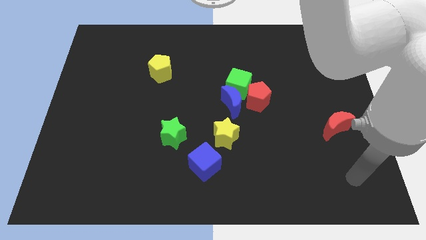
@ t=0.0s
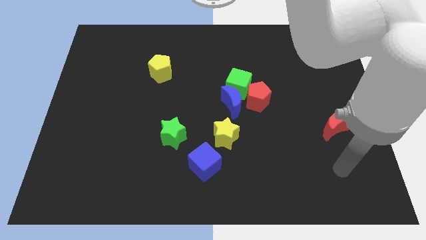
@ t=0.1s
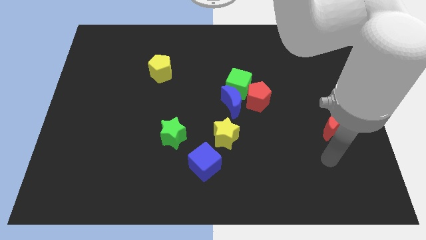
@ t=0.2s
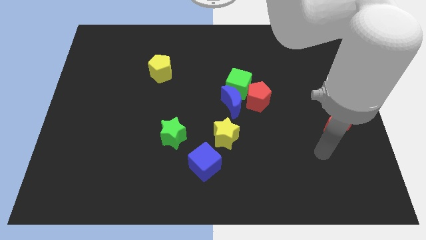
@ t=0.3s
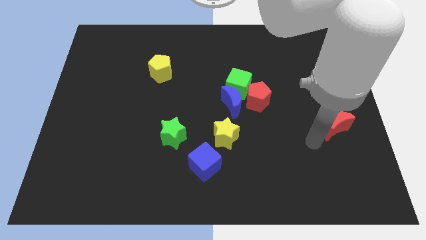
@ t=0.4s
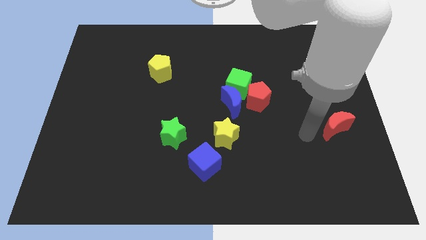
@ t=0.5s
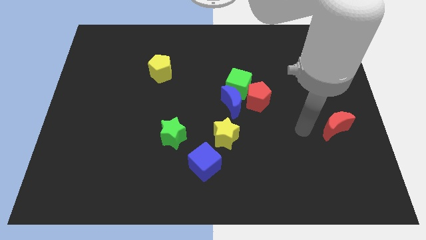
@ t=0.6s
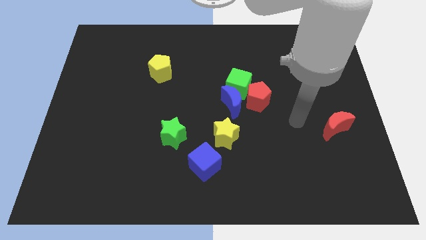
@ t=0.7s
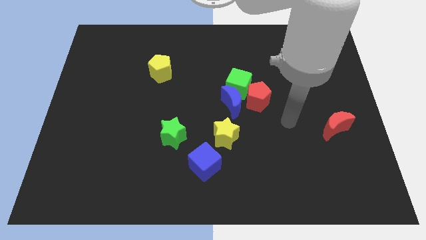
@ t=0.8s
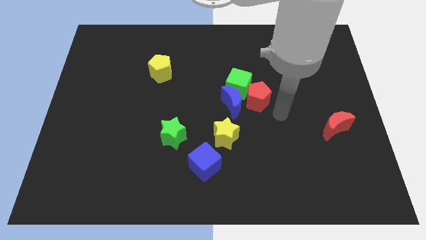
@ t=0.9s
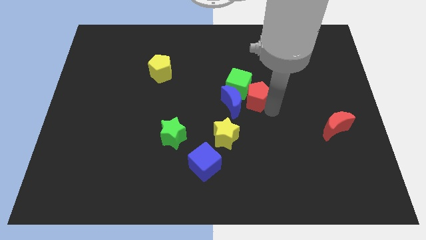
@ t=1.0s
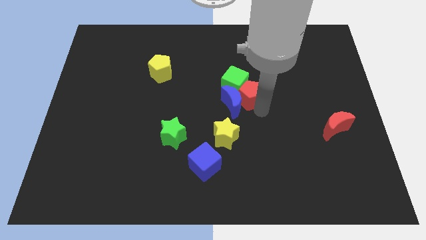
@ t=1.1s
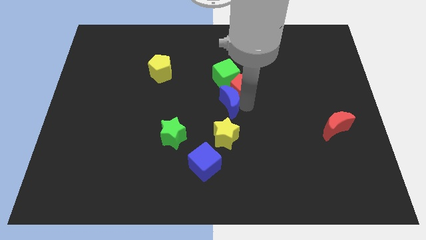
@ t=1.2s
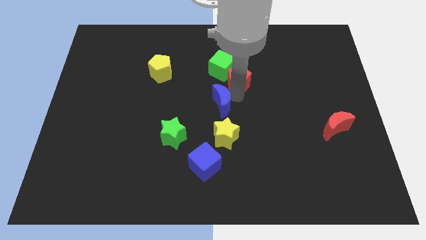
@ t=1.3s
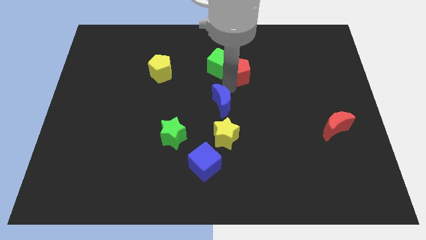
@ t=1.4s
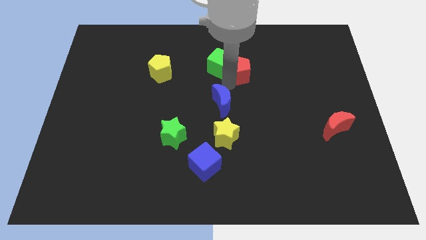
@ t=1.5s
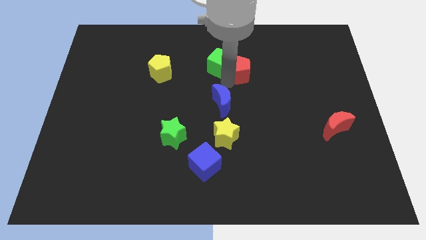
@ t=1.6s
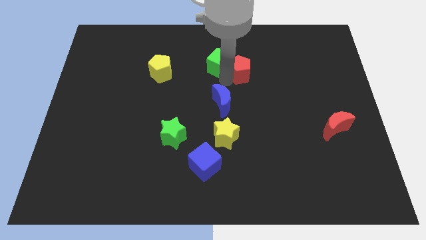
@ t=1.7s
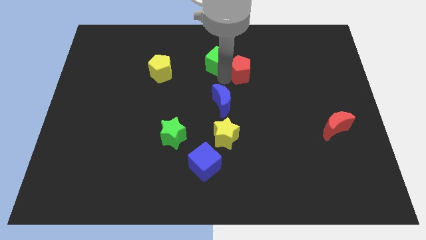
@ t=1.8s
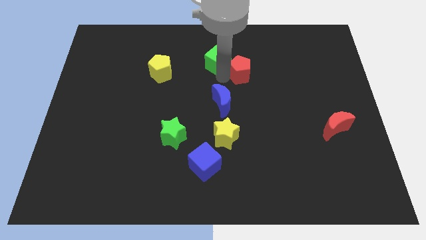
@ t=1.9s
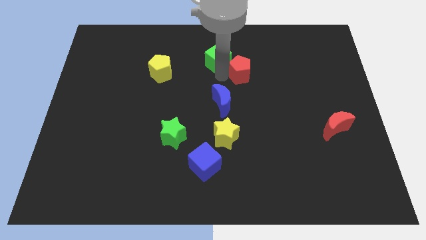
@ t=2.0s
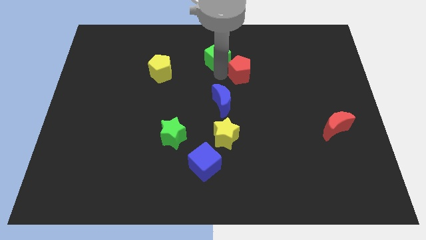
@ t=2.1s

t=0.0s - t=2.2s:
pull the green cube apart from the blue moon and red pentagon

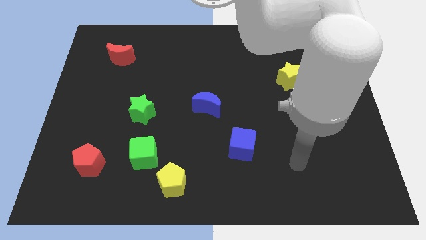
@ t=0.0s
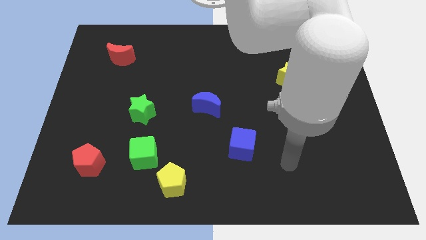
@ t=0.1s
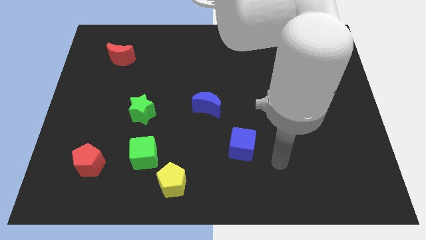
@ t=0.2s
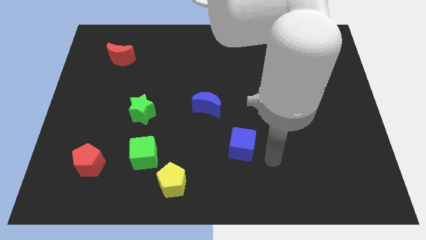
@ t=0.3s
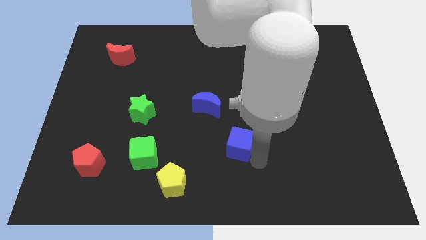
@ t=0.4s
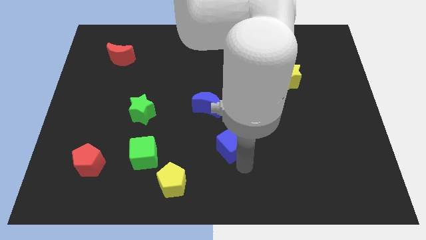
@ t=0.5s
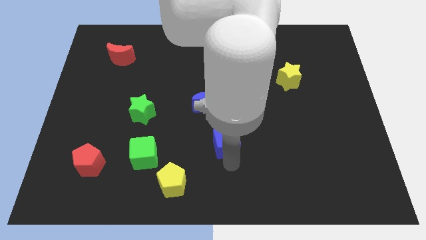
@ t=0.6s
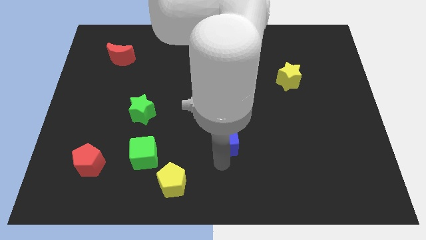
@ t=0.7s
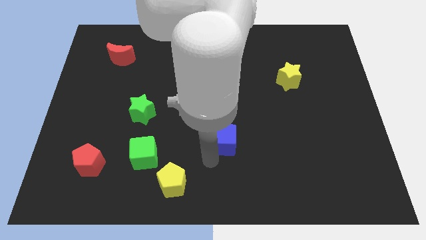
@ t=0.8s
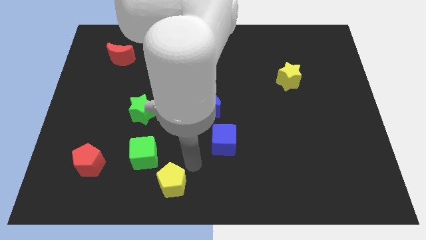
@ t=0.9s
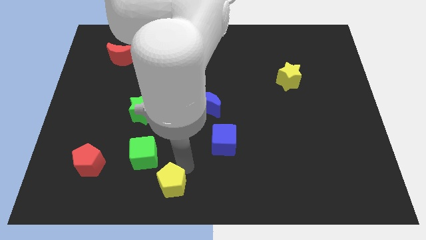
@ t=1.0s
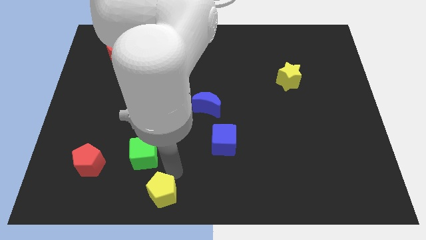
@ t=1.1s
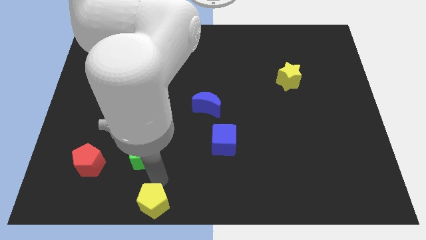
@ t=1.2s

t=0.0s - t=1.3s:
pull the green cube apart from the yellow pentagon

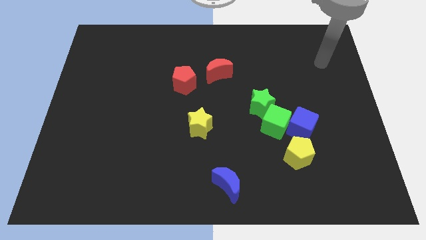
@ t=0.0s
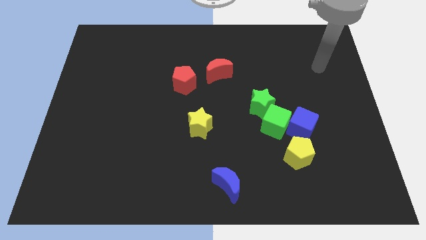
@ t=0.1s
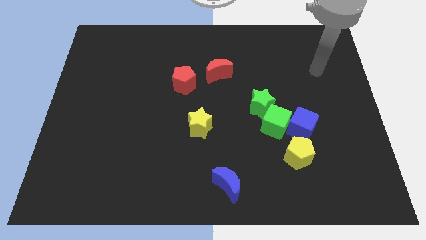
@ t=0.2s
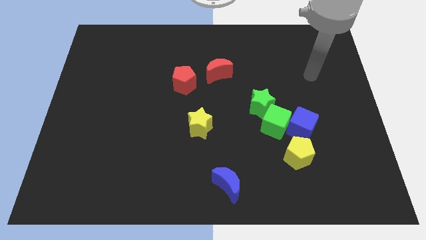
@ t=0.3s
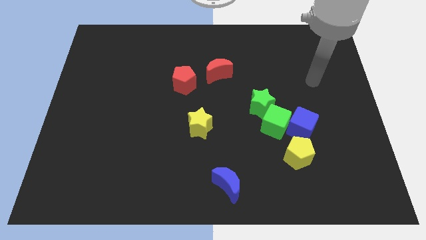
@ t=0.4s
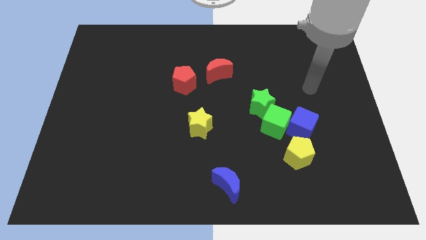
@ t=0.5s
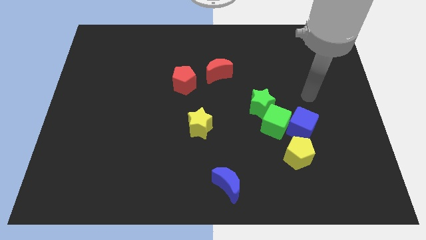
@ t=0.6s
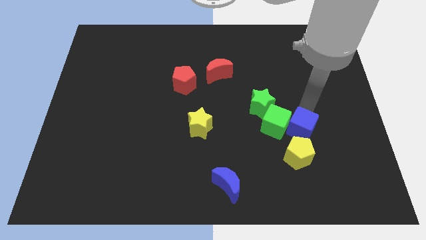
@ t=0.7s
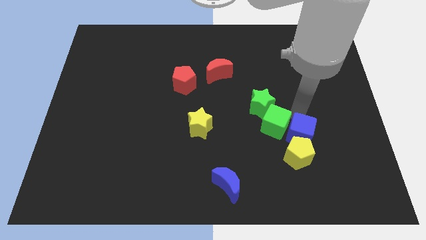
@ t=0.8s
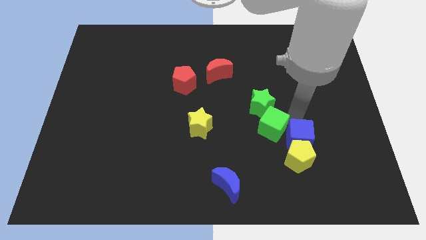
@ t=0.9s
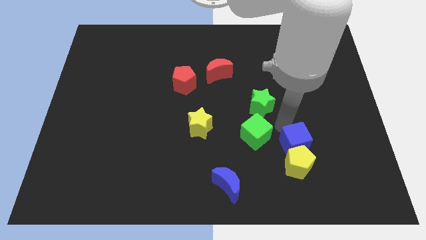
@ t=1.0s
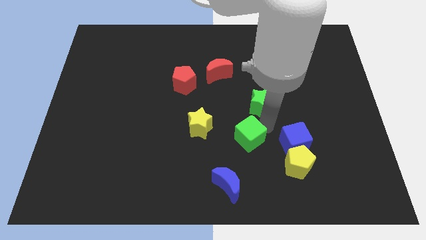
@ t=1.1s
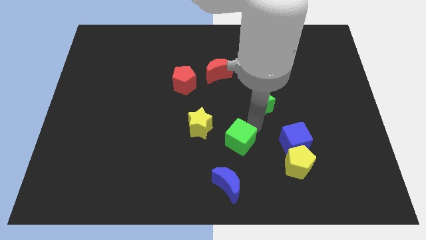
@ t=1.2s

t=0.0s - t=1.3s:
move the green star away from the green cube

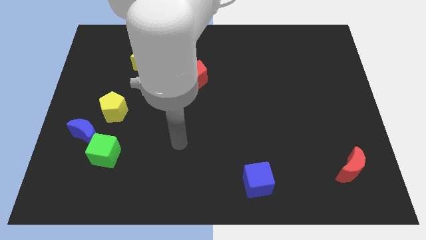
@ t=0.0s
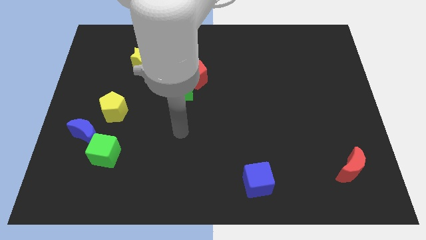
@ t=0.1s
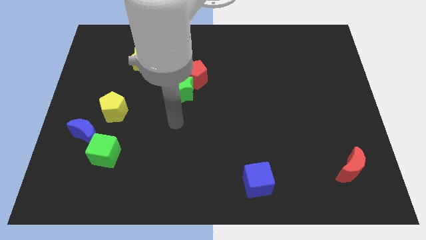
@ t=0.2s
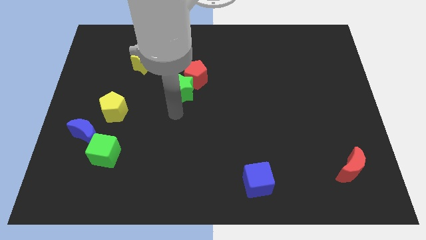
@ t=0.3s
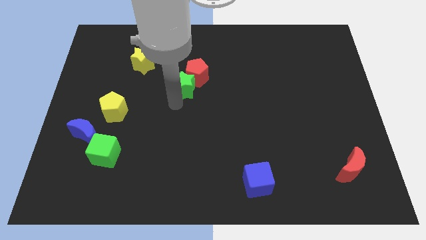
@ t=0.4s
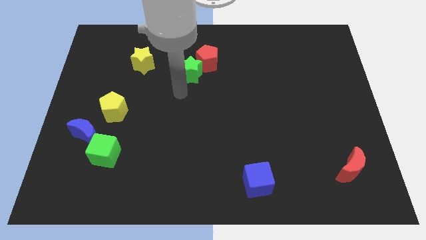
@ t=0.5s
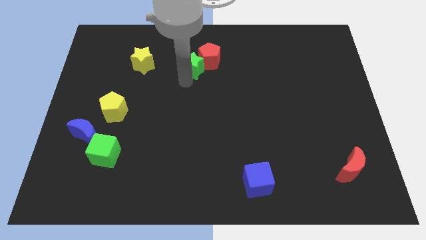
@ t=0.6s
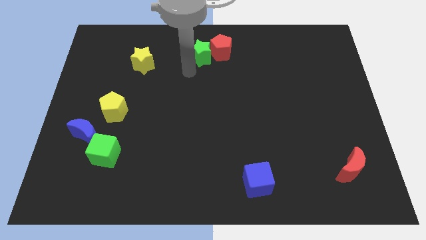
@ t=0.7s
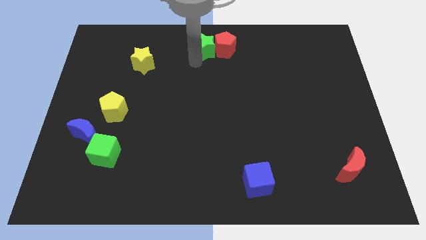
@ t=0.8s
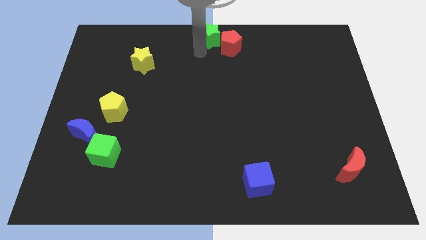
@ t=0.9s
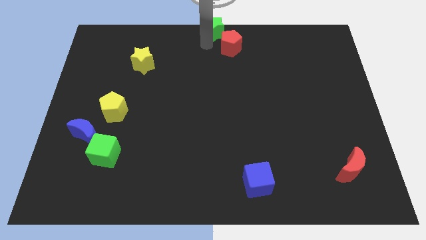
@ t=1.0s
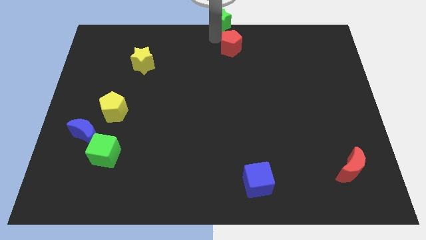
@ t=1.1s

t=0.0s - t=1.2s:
move the red pentagon away from the green star

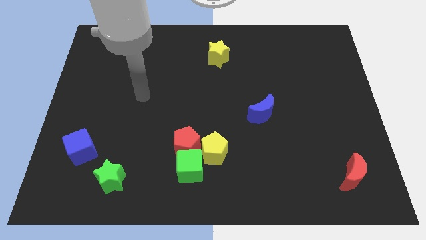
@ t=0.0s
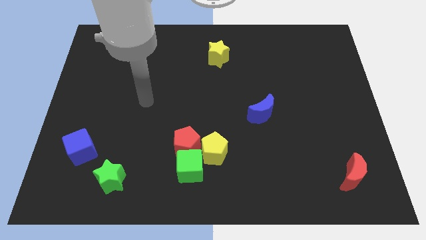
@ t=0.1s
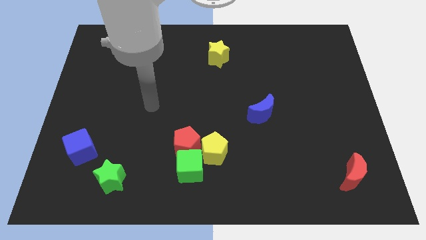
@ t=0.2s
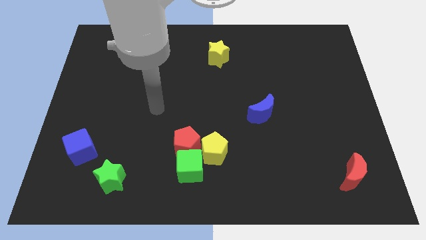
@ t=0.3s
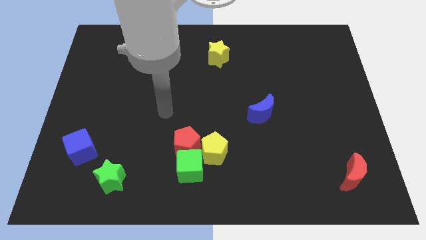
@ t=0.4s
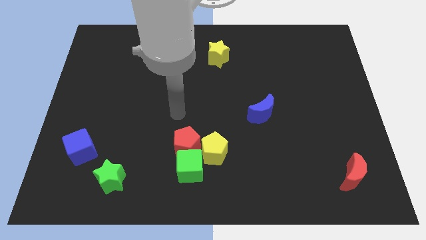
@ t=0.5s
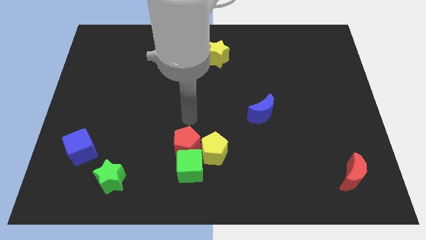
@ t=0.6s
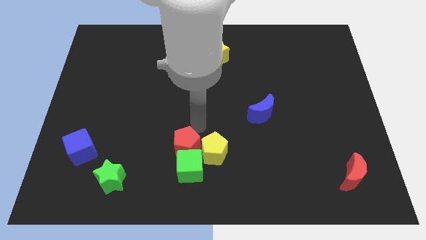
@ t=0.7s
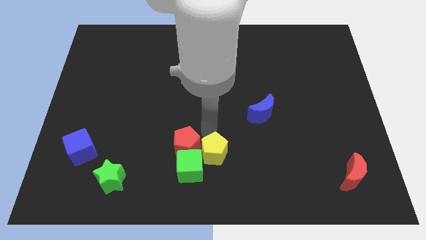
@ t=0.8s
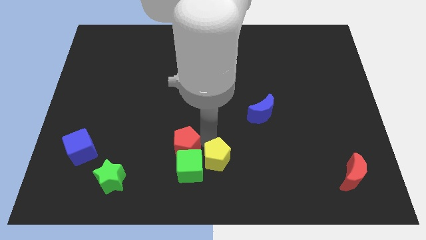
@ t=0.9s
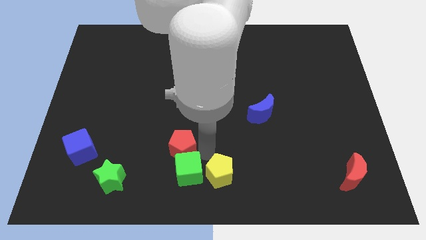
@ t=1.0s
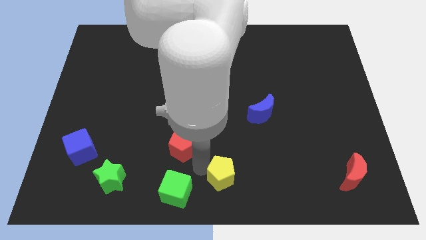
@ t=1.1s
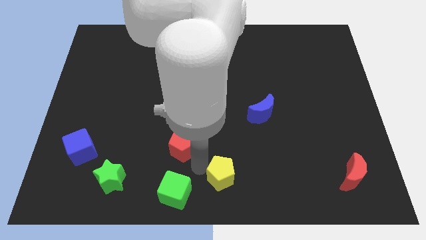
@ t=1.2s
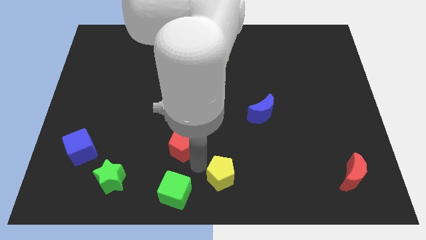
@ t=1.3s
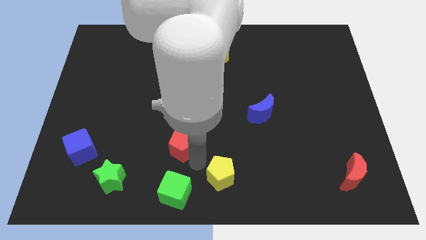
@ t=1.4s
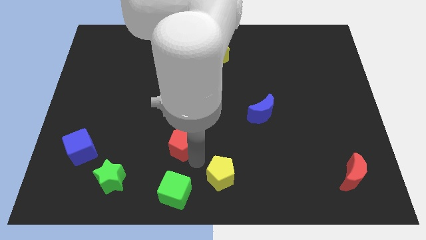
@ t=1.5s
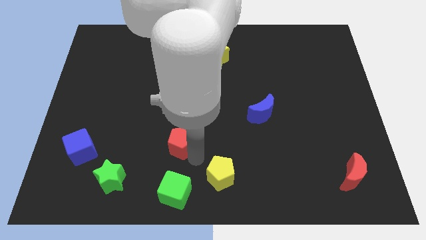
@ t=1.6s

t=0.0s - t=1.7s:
move the red pentagon away from the green cube and yellow pentagon

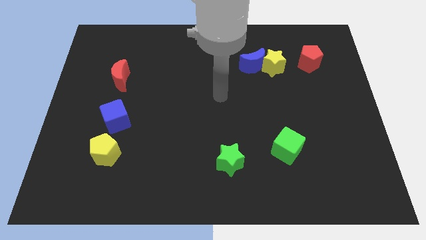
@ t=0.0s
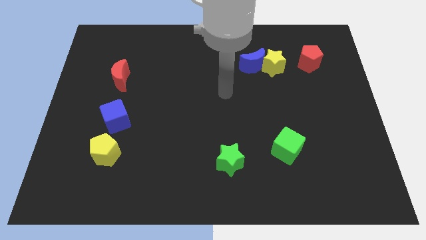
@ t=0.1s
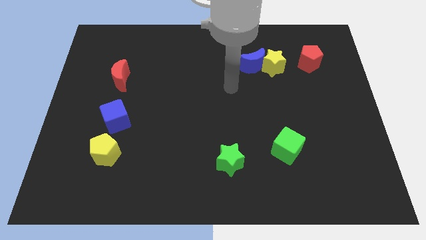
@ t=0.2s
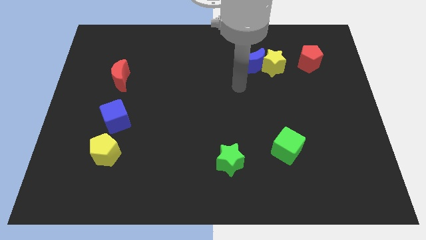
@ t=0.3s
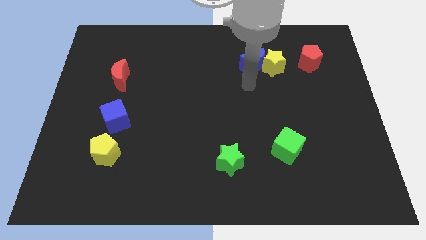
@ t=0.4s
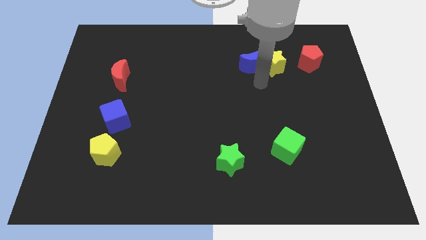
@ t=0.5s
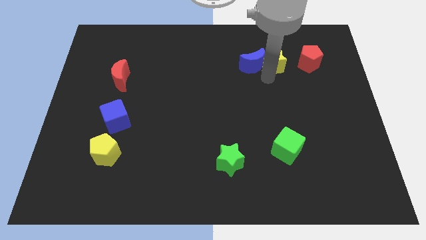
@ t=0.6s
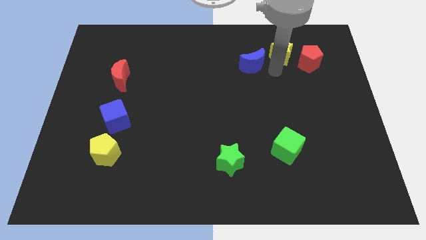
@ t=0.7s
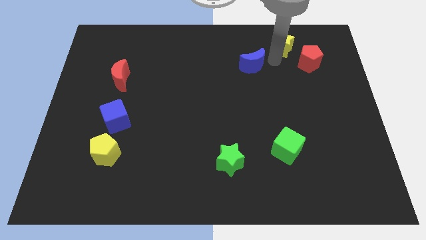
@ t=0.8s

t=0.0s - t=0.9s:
separate the blue moon from the yellow star

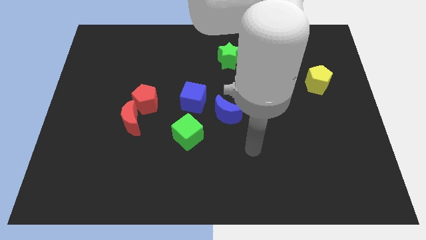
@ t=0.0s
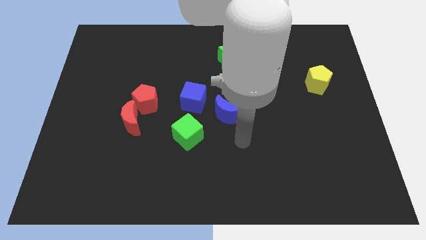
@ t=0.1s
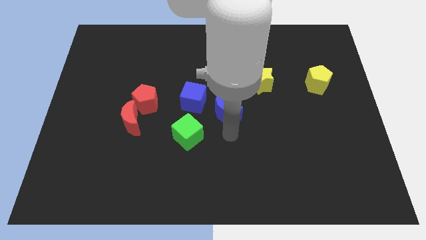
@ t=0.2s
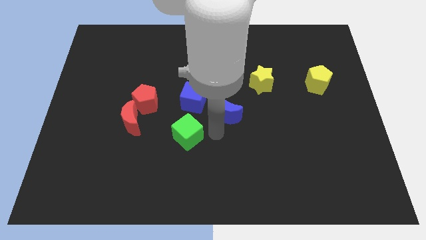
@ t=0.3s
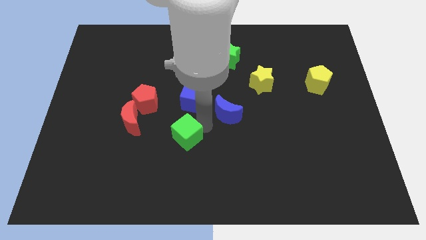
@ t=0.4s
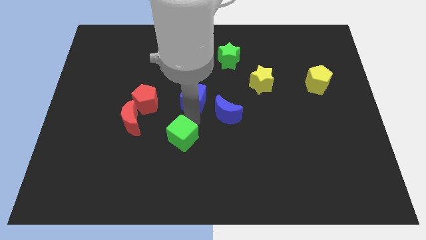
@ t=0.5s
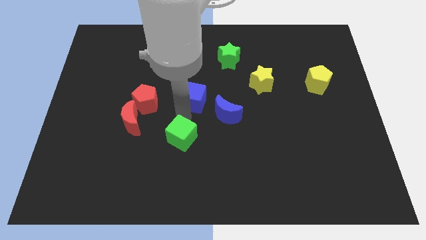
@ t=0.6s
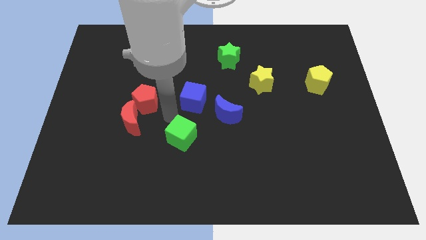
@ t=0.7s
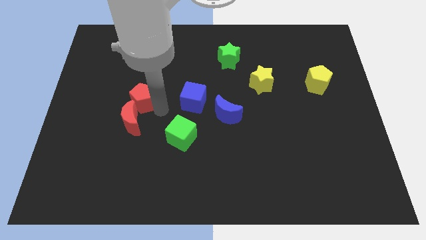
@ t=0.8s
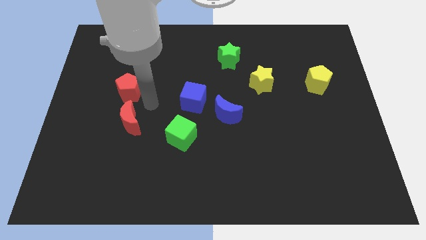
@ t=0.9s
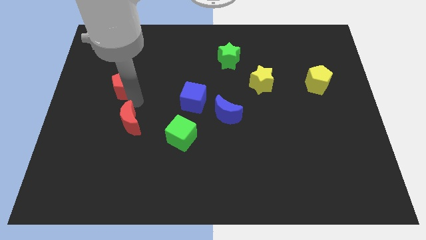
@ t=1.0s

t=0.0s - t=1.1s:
move the red moon away from the red pentagon
